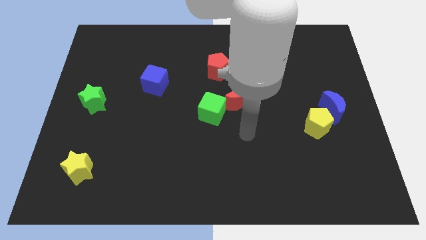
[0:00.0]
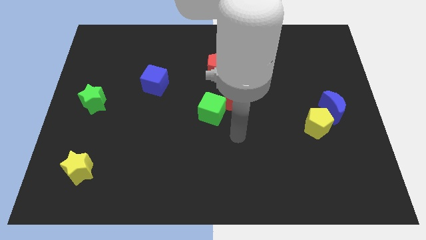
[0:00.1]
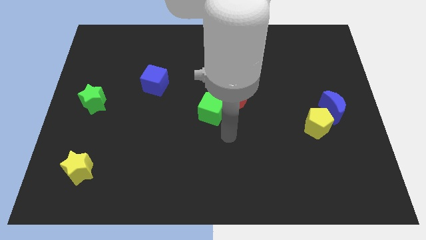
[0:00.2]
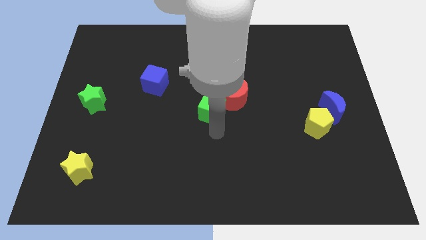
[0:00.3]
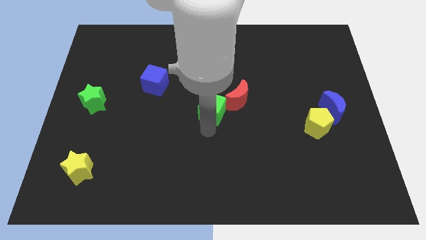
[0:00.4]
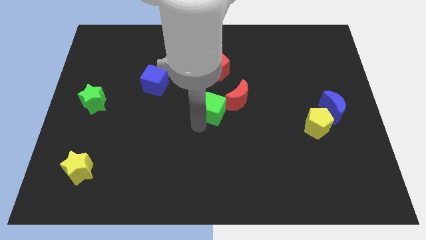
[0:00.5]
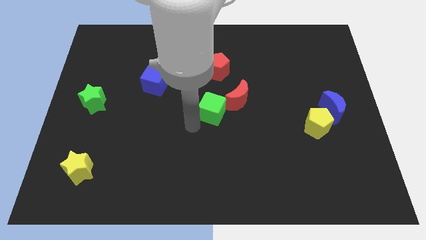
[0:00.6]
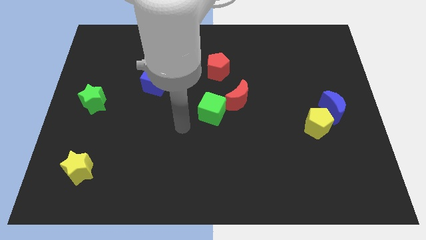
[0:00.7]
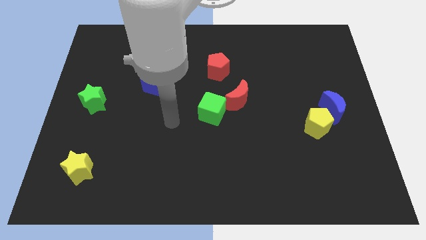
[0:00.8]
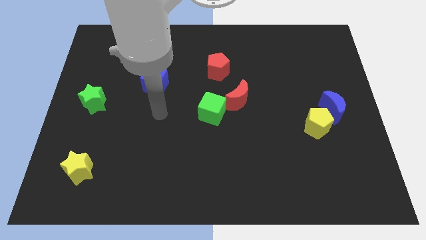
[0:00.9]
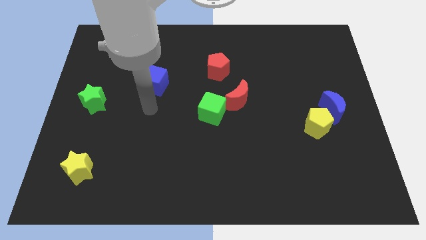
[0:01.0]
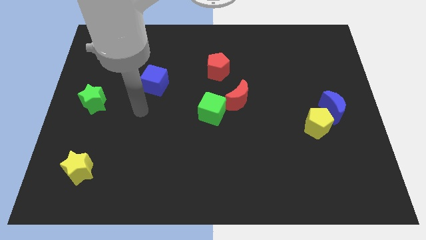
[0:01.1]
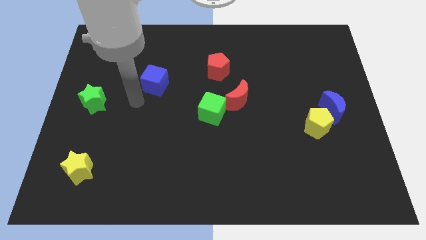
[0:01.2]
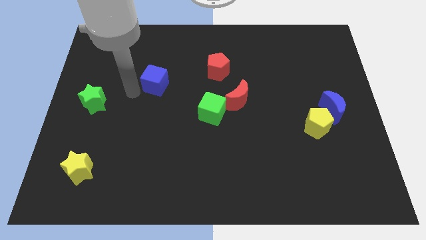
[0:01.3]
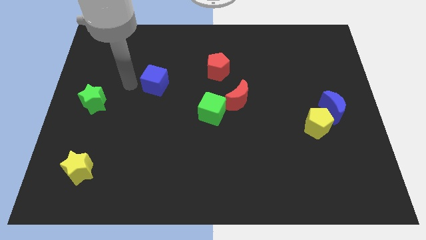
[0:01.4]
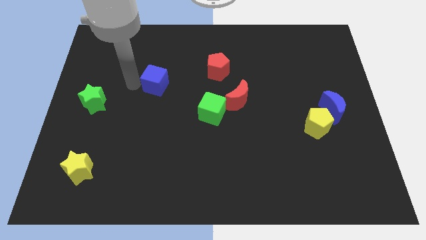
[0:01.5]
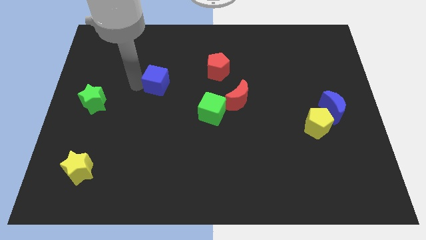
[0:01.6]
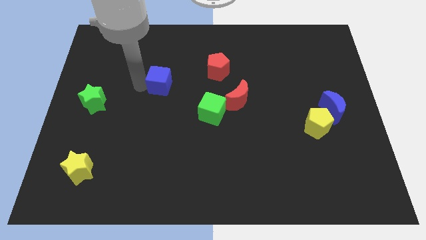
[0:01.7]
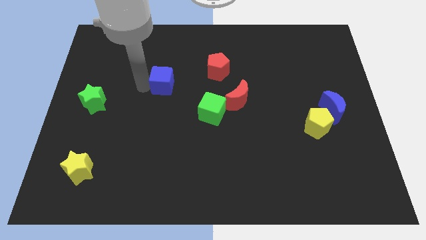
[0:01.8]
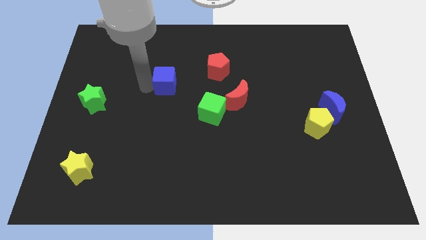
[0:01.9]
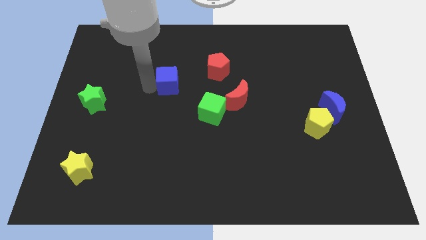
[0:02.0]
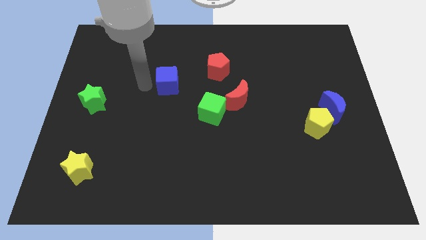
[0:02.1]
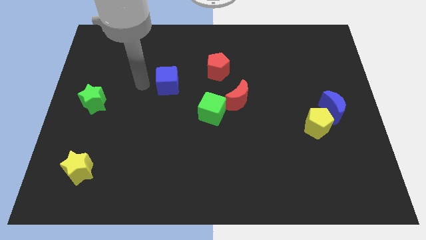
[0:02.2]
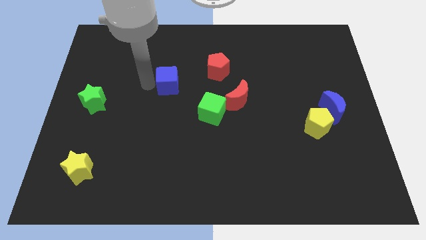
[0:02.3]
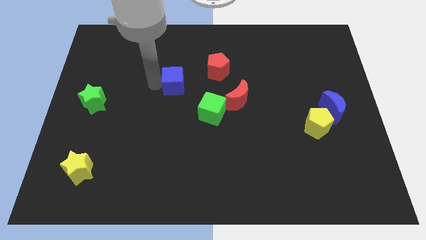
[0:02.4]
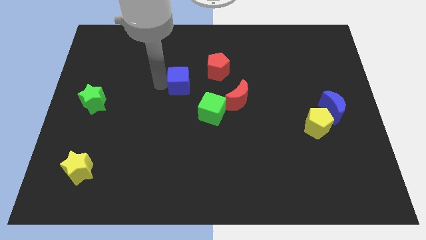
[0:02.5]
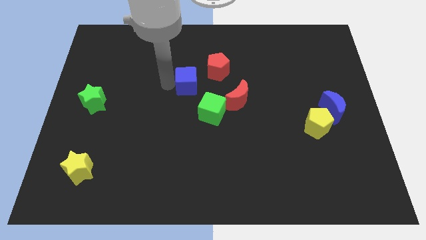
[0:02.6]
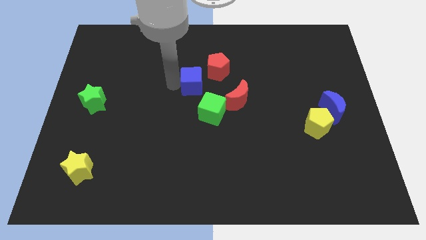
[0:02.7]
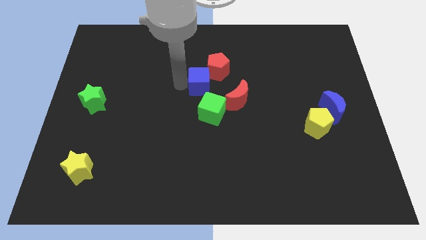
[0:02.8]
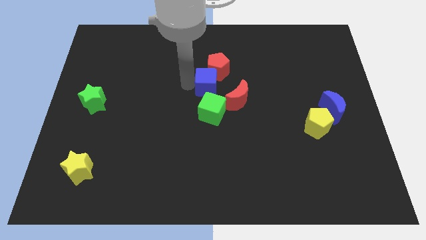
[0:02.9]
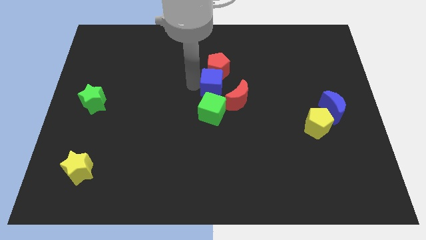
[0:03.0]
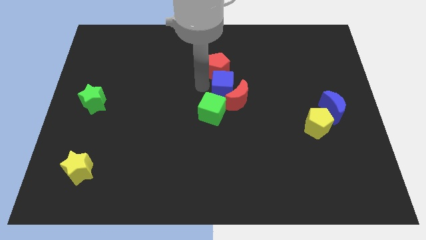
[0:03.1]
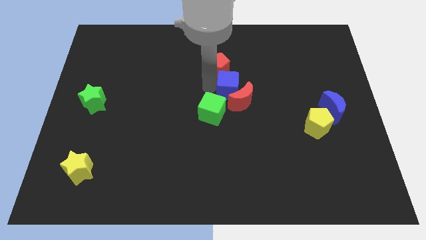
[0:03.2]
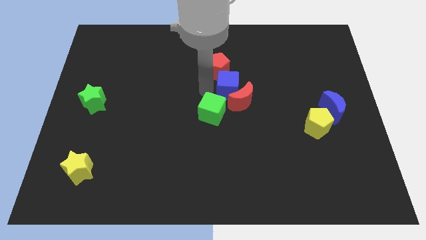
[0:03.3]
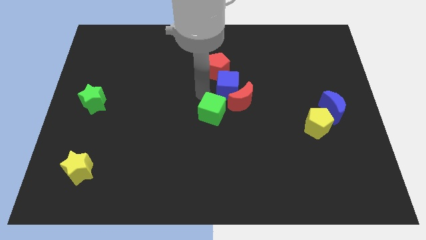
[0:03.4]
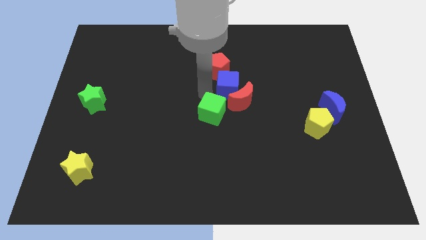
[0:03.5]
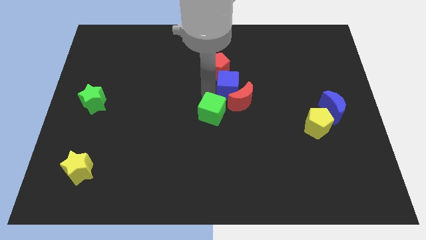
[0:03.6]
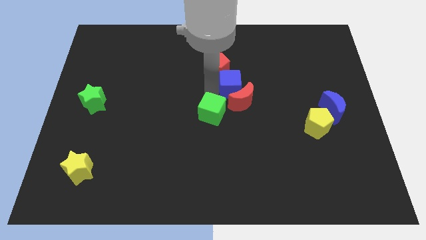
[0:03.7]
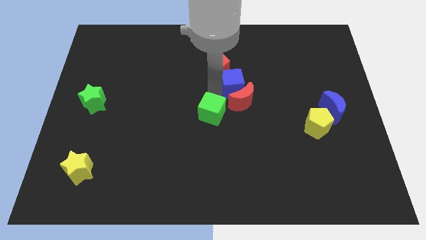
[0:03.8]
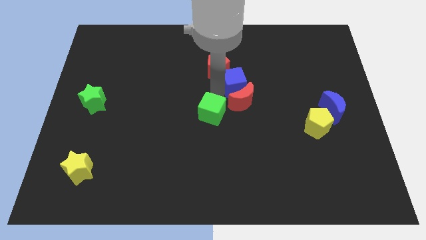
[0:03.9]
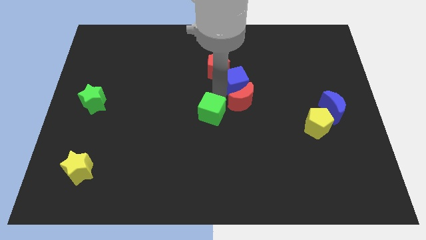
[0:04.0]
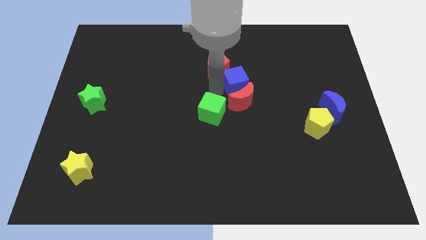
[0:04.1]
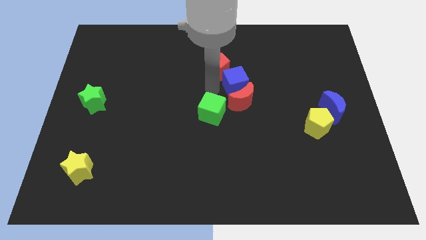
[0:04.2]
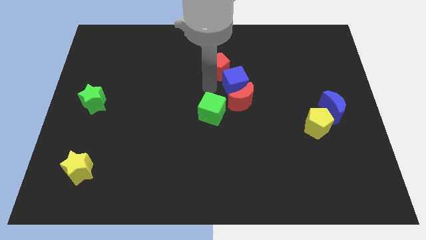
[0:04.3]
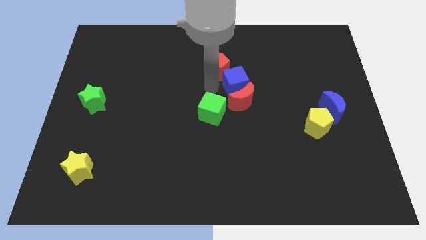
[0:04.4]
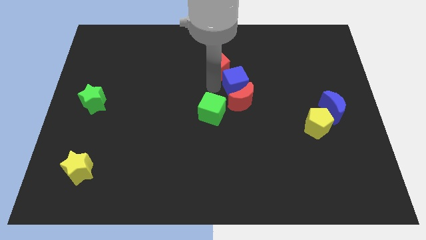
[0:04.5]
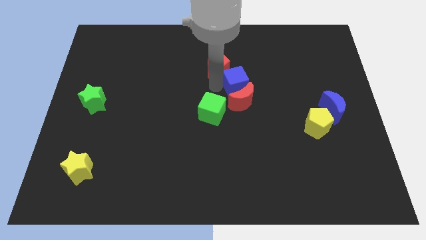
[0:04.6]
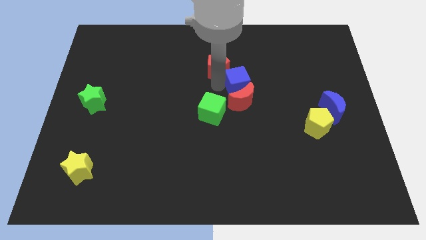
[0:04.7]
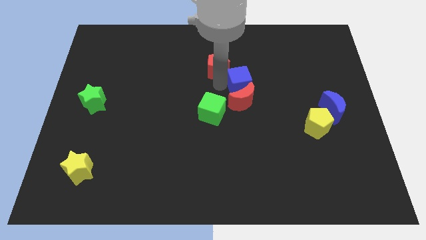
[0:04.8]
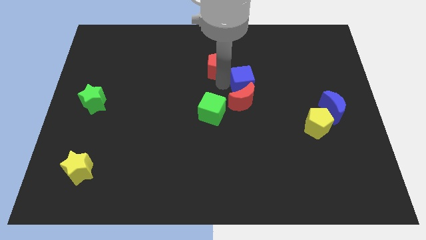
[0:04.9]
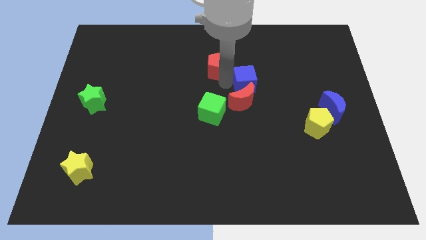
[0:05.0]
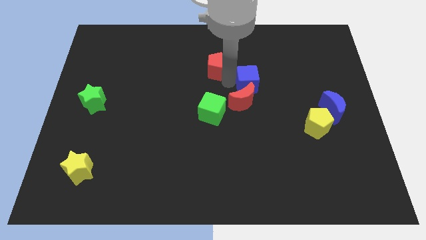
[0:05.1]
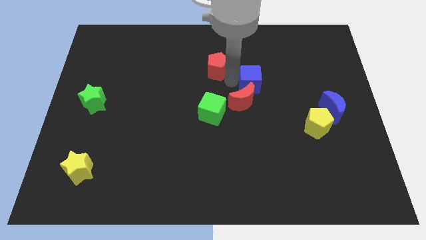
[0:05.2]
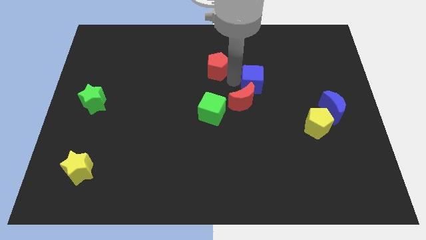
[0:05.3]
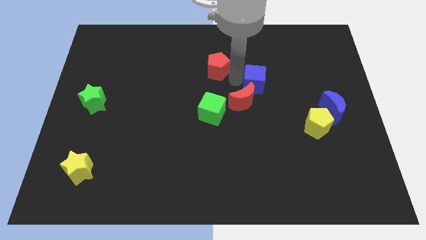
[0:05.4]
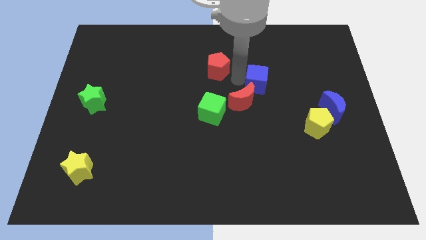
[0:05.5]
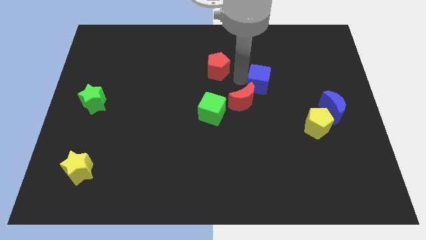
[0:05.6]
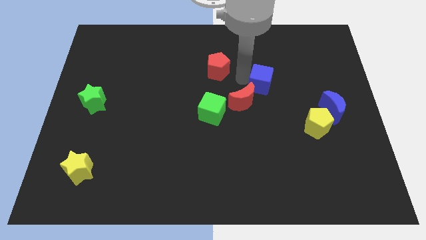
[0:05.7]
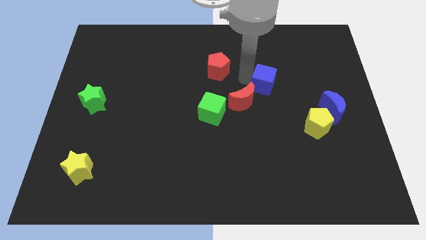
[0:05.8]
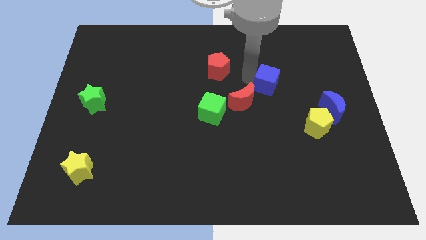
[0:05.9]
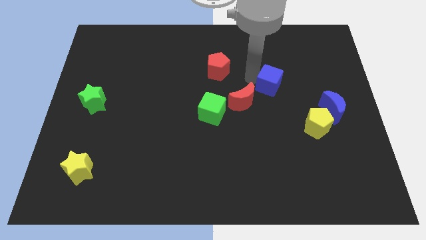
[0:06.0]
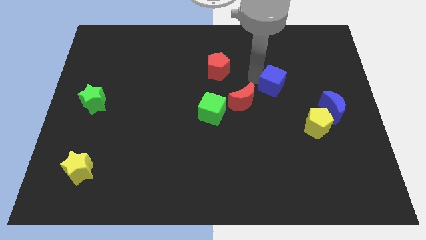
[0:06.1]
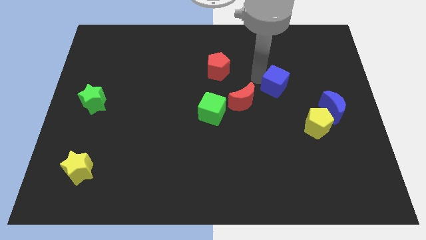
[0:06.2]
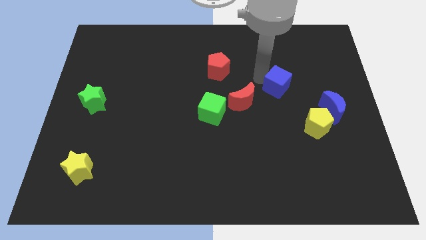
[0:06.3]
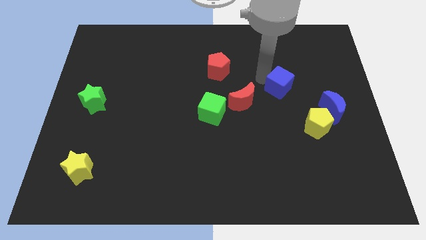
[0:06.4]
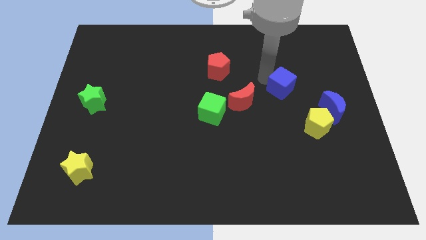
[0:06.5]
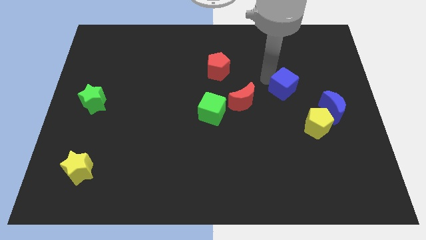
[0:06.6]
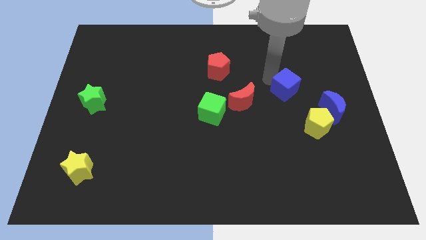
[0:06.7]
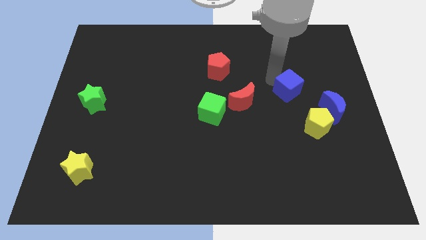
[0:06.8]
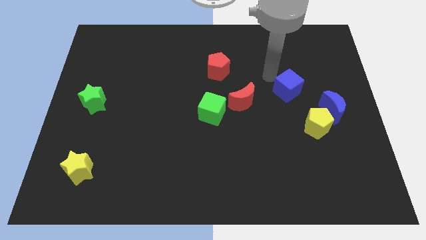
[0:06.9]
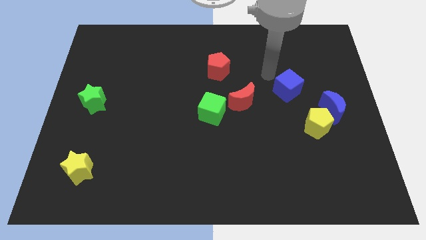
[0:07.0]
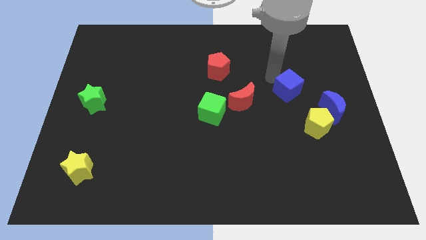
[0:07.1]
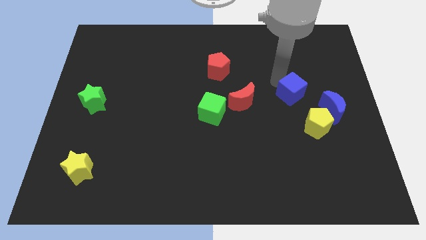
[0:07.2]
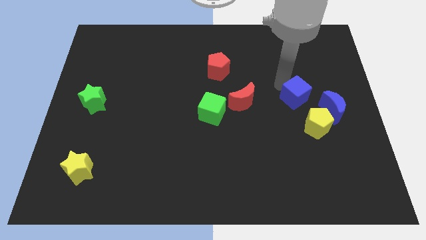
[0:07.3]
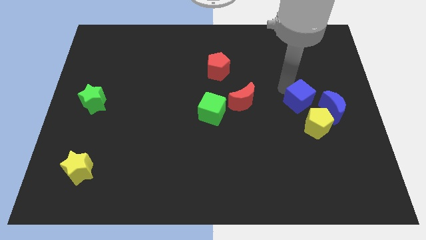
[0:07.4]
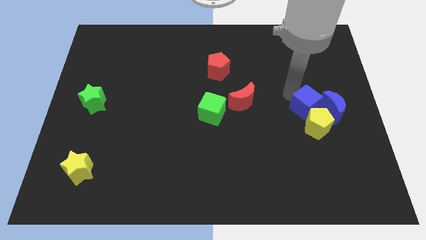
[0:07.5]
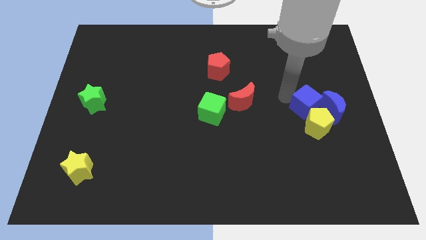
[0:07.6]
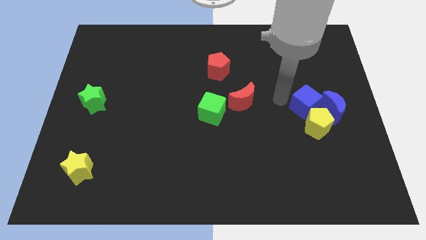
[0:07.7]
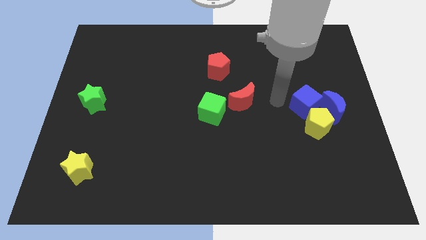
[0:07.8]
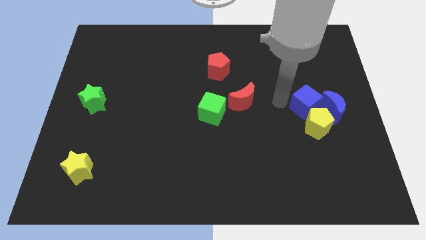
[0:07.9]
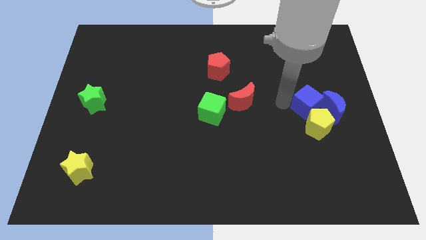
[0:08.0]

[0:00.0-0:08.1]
push the blue cube next to the blue moon
